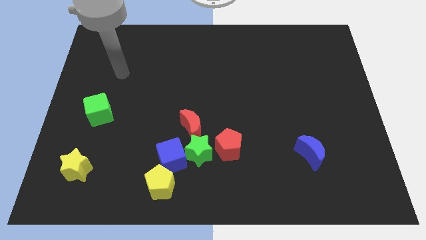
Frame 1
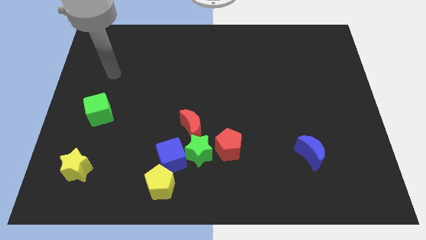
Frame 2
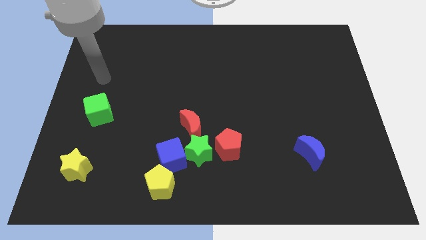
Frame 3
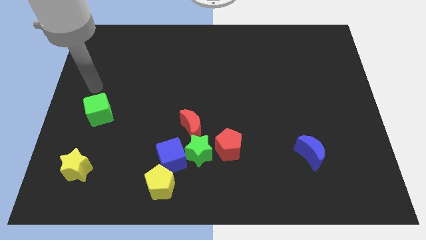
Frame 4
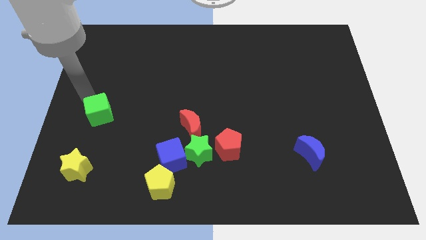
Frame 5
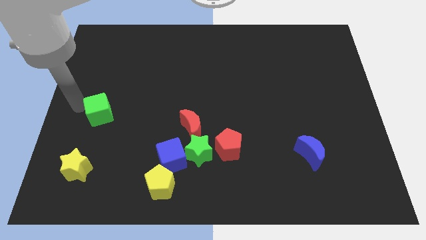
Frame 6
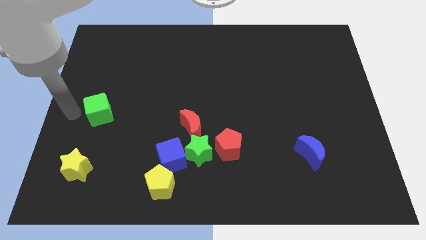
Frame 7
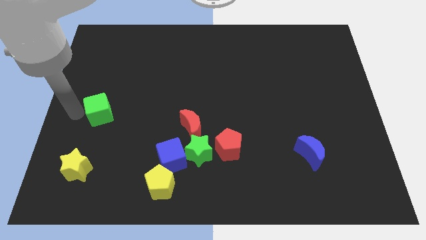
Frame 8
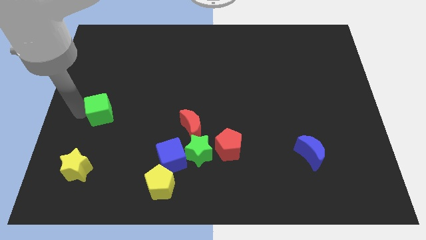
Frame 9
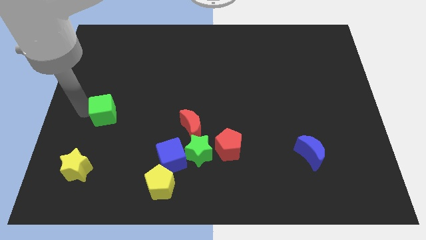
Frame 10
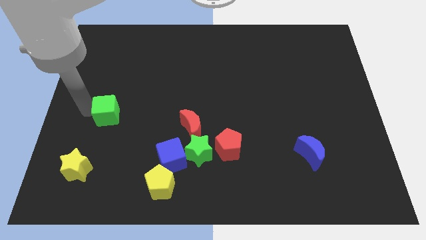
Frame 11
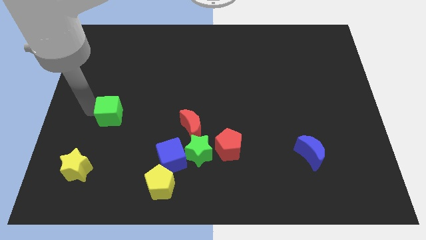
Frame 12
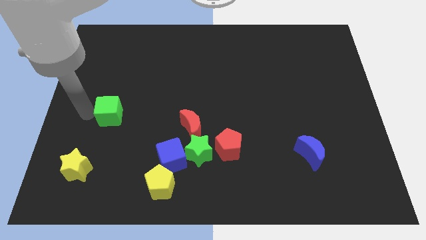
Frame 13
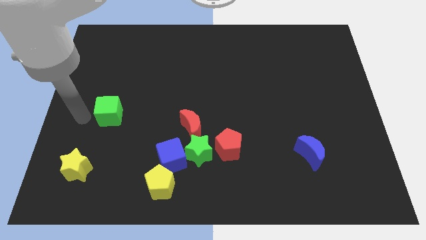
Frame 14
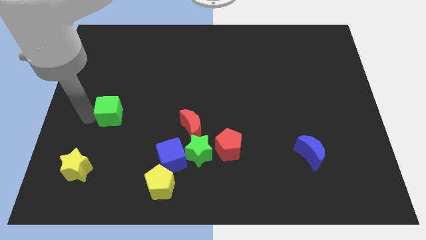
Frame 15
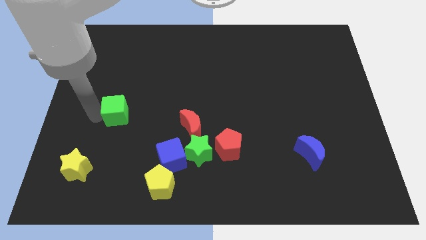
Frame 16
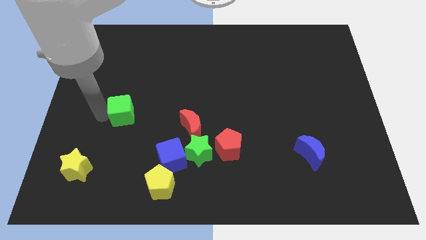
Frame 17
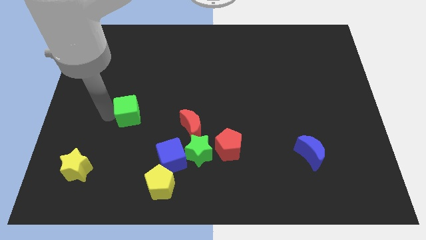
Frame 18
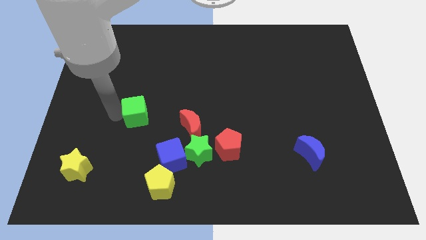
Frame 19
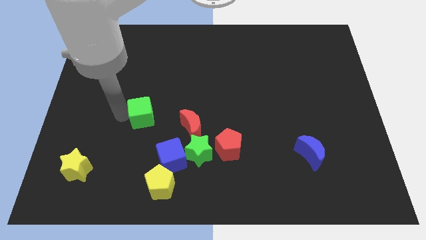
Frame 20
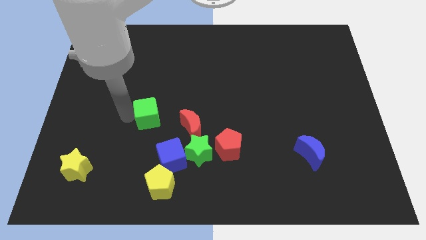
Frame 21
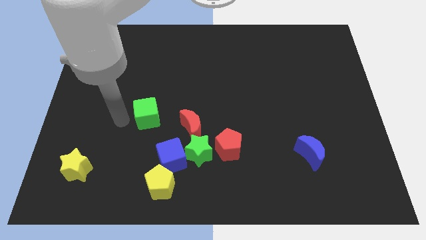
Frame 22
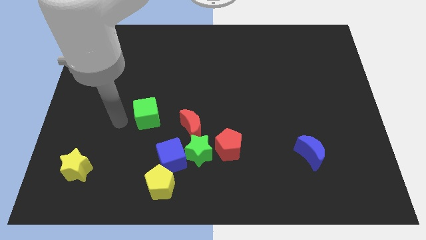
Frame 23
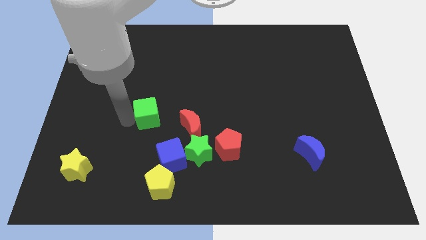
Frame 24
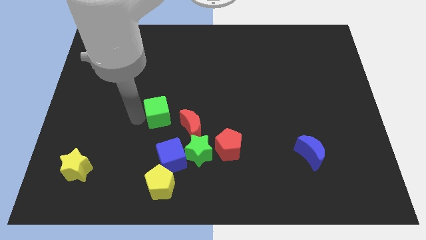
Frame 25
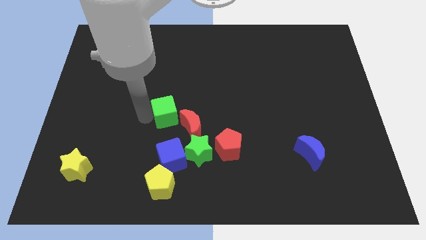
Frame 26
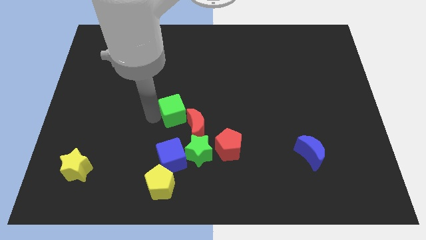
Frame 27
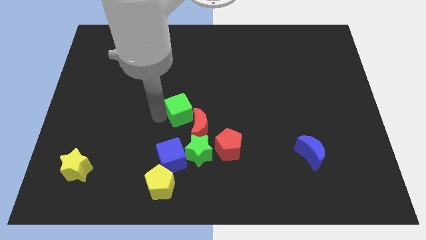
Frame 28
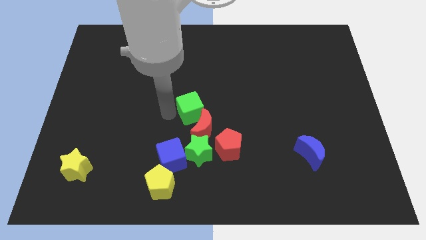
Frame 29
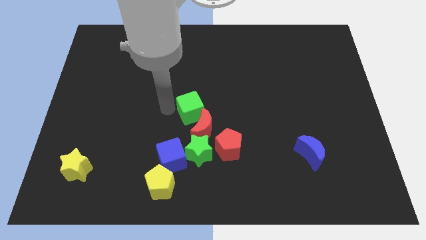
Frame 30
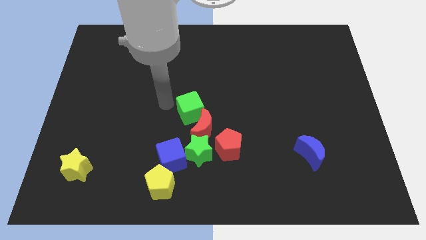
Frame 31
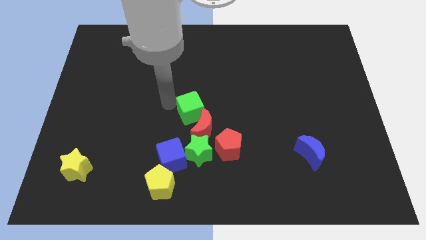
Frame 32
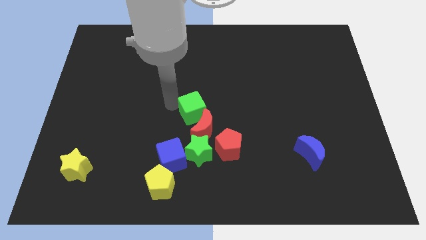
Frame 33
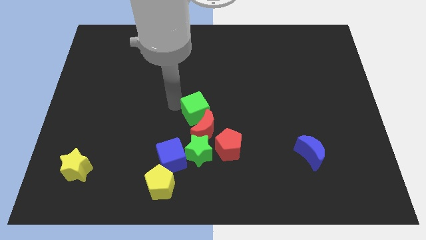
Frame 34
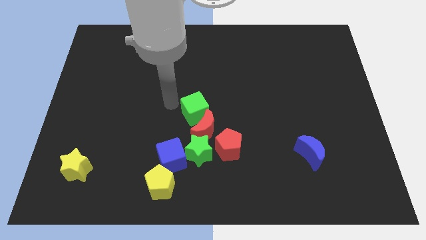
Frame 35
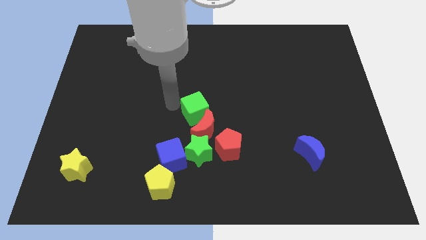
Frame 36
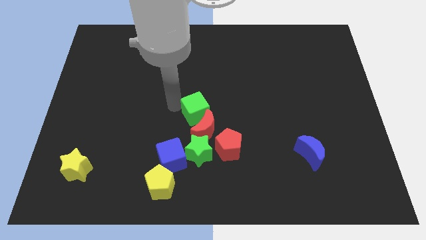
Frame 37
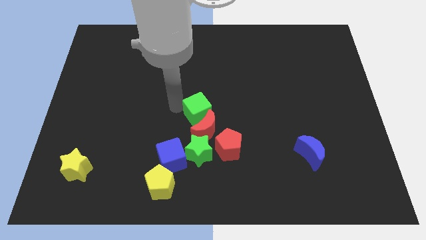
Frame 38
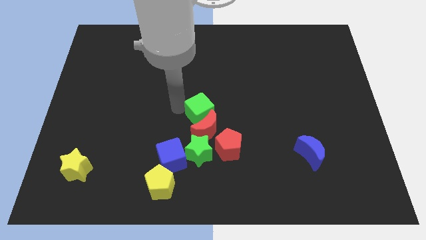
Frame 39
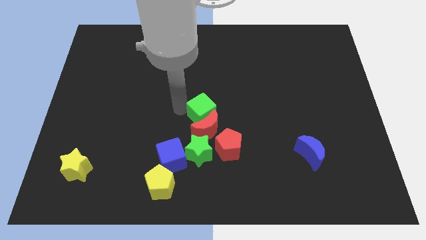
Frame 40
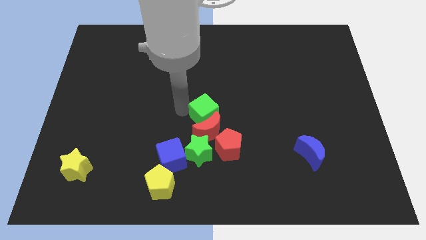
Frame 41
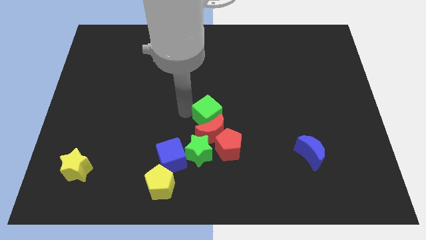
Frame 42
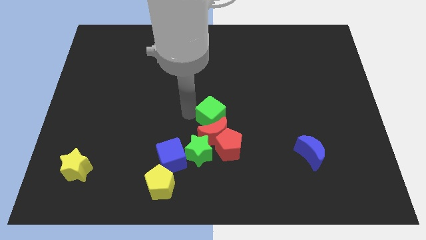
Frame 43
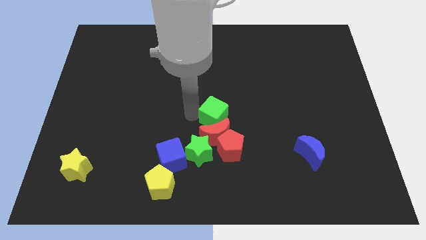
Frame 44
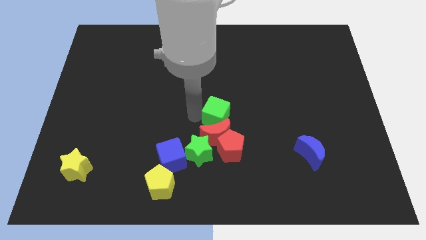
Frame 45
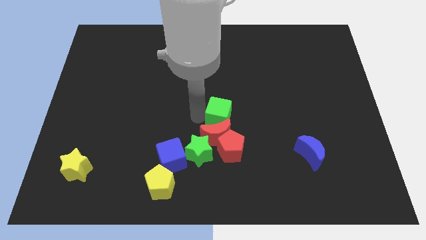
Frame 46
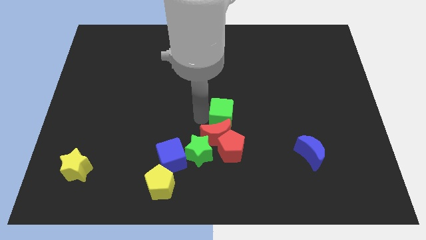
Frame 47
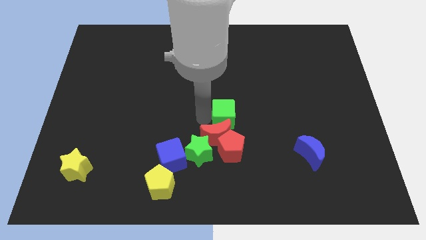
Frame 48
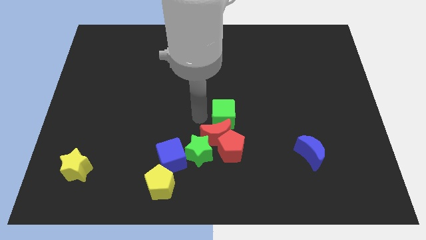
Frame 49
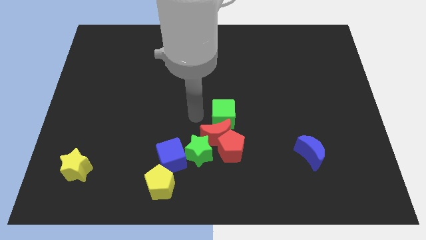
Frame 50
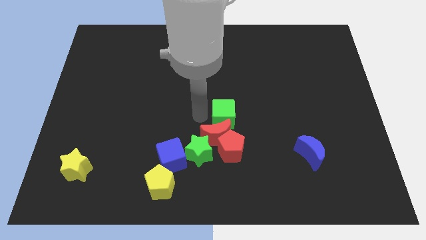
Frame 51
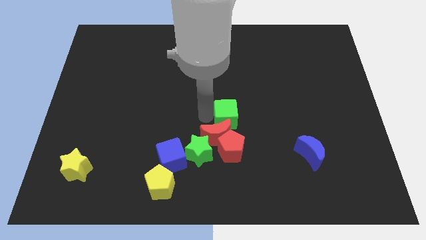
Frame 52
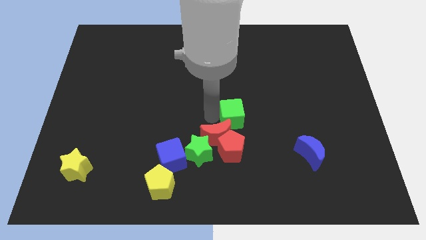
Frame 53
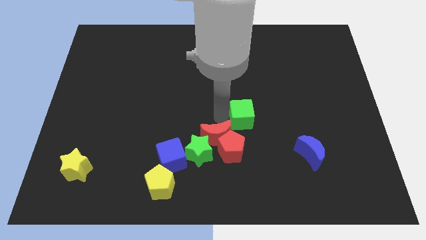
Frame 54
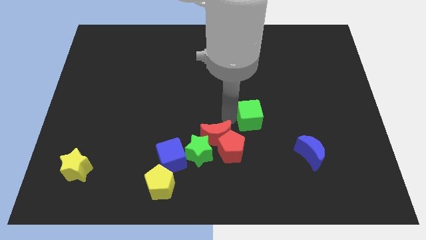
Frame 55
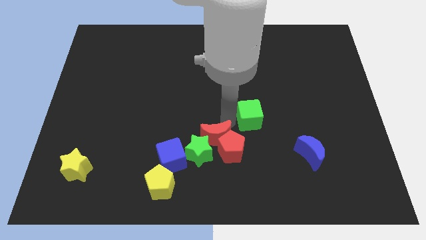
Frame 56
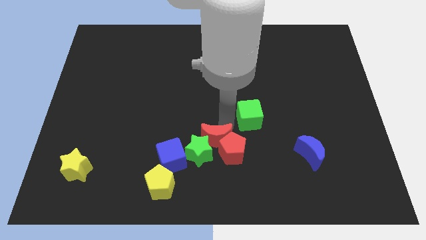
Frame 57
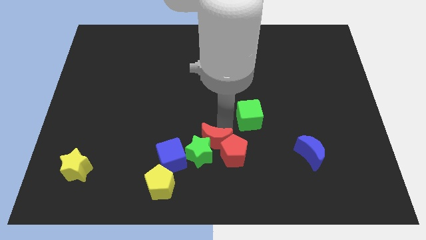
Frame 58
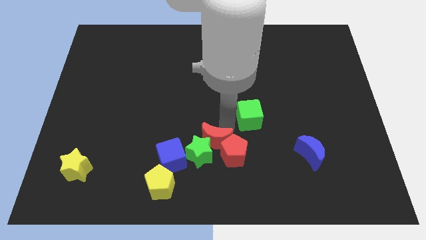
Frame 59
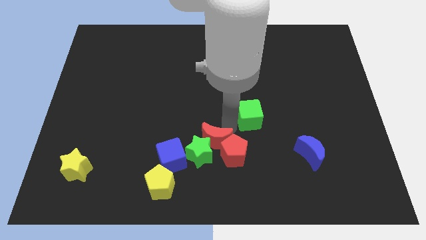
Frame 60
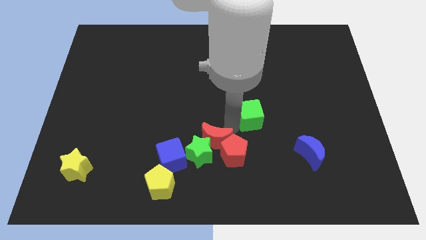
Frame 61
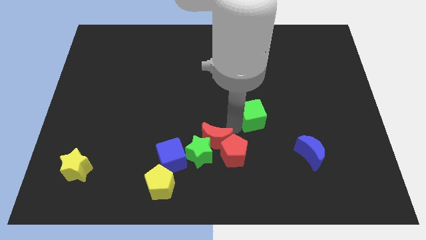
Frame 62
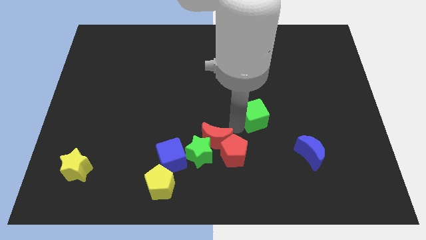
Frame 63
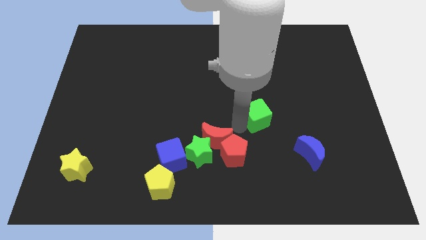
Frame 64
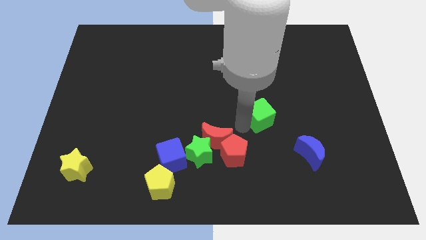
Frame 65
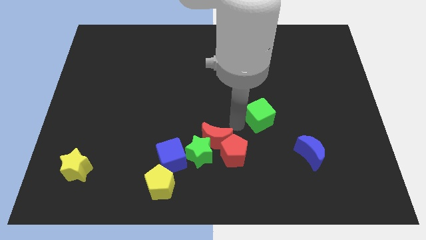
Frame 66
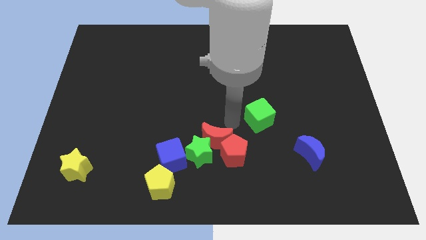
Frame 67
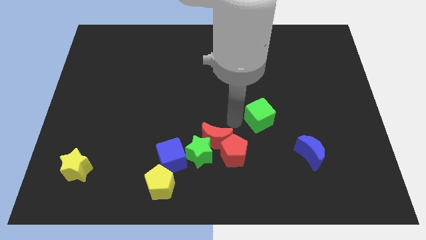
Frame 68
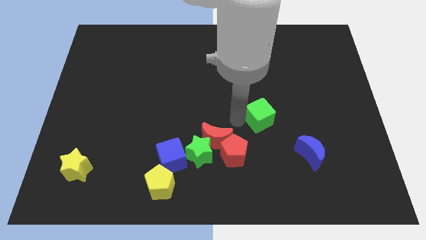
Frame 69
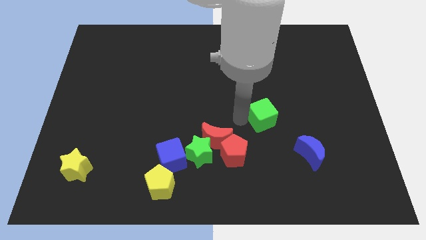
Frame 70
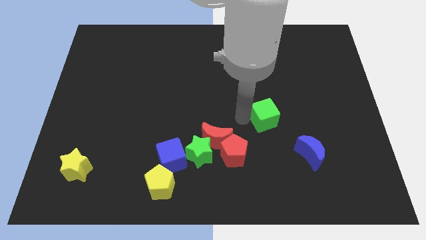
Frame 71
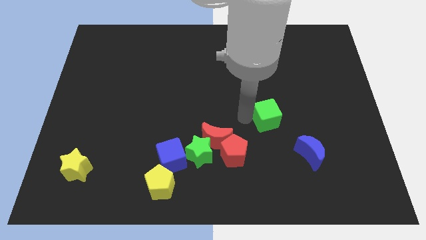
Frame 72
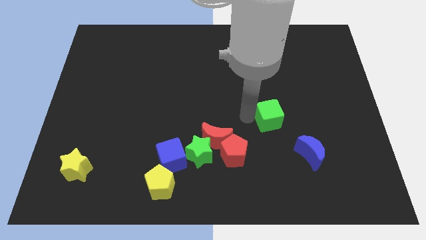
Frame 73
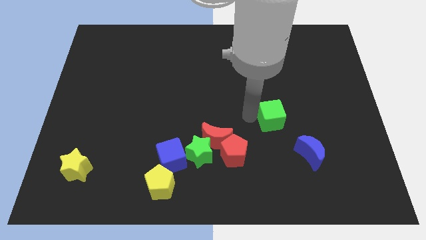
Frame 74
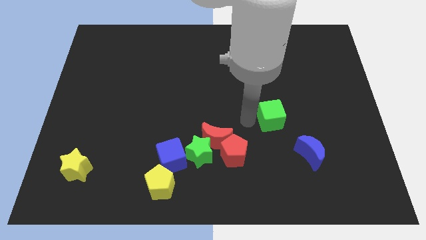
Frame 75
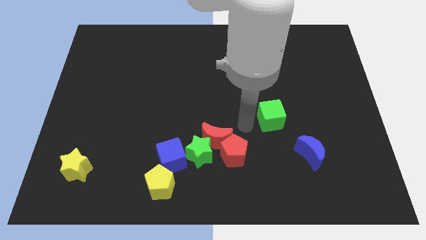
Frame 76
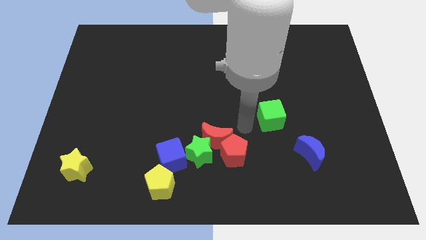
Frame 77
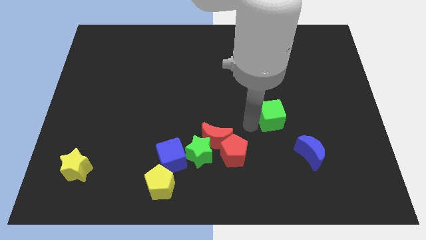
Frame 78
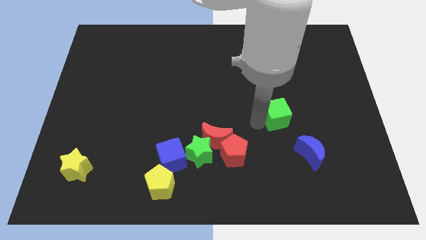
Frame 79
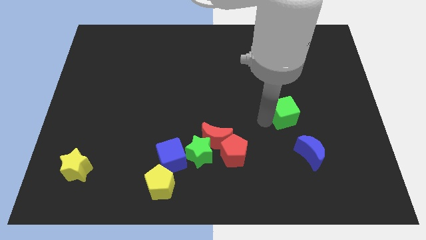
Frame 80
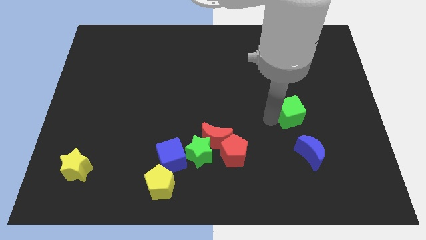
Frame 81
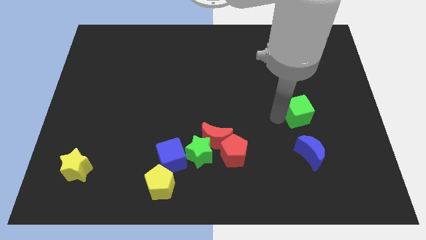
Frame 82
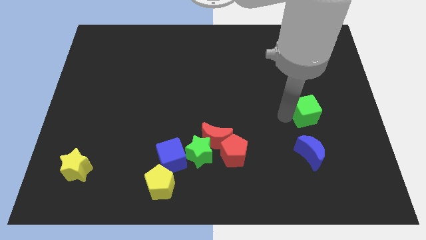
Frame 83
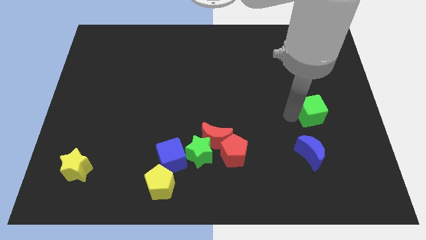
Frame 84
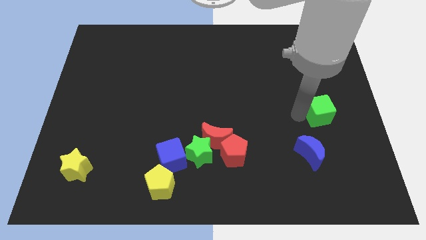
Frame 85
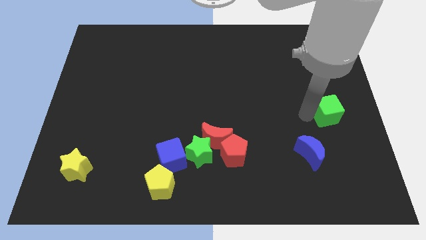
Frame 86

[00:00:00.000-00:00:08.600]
move the green cube to the right side of the board
